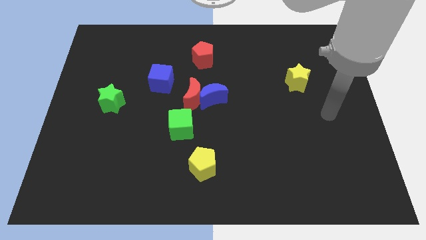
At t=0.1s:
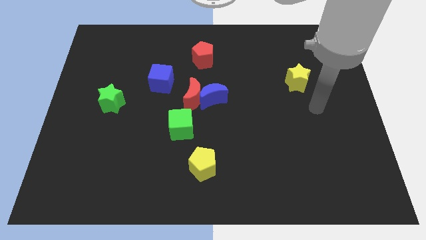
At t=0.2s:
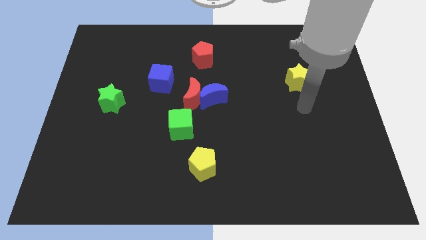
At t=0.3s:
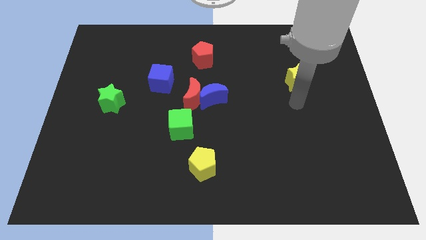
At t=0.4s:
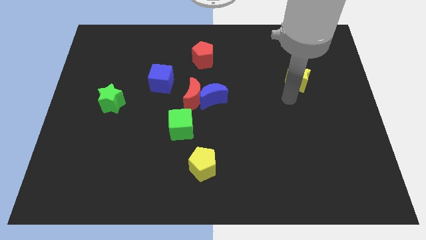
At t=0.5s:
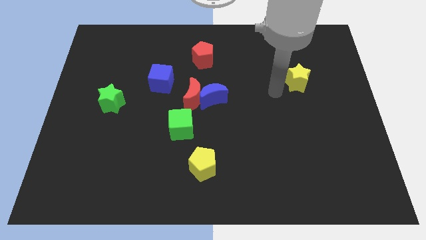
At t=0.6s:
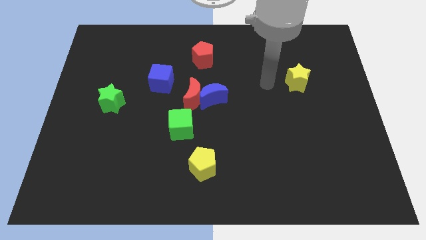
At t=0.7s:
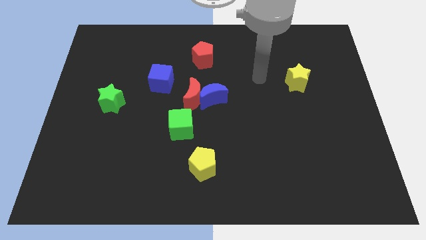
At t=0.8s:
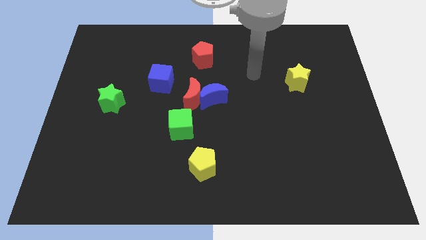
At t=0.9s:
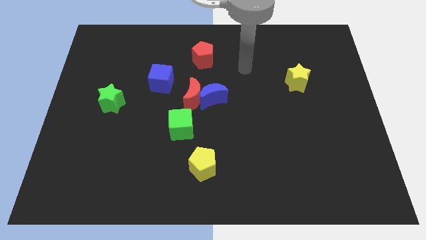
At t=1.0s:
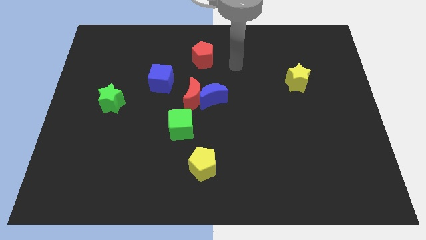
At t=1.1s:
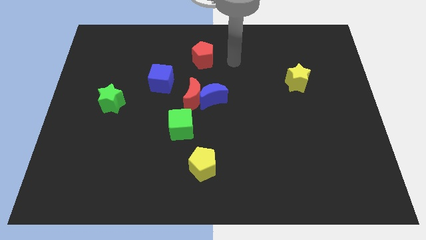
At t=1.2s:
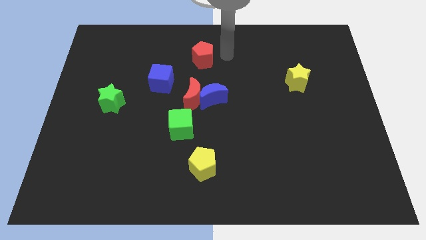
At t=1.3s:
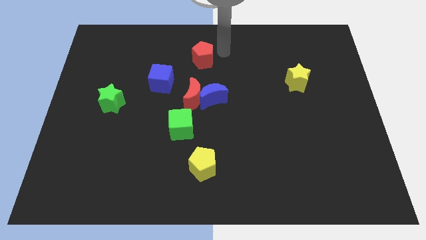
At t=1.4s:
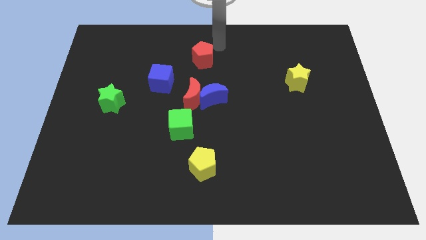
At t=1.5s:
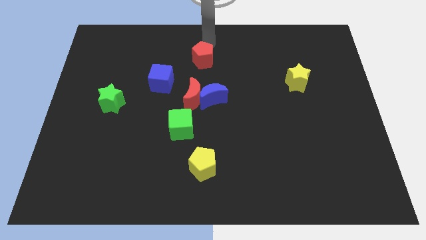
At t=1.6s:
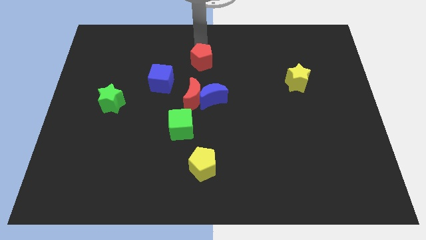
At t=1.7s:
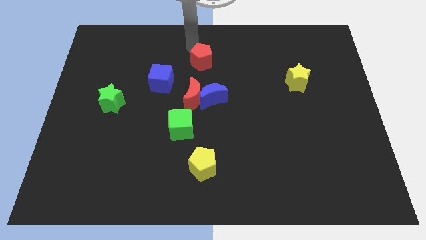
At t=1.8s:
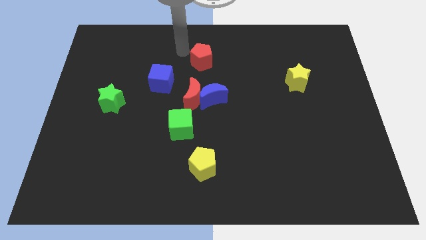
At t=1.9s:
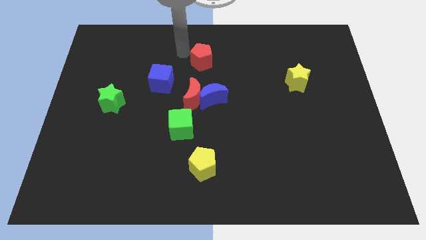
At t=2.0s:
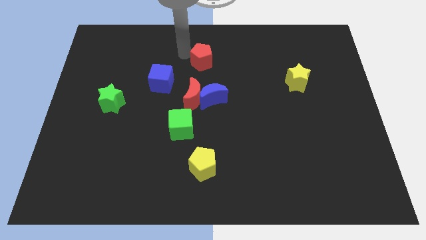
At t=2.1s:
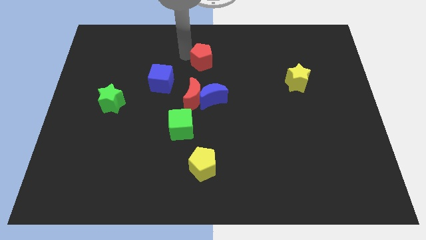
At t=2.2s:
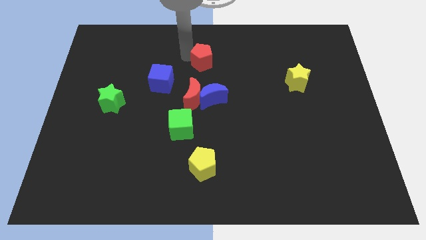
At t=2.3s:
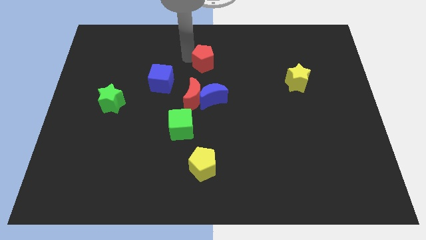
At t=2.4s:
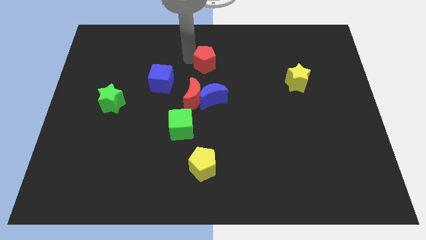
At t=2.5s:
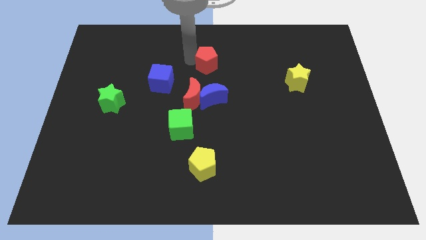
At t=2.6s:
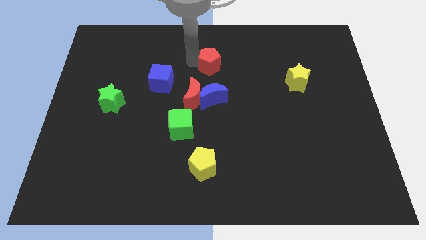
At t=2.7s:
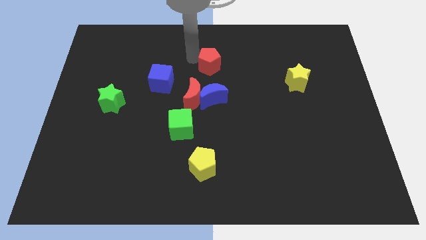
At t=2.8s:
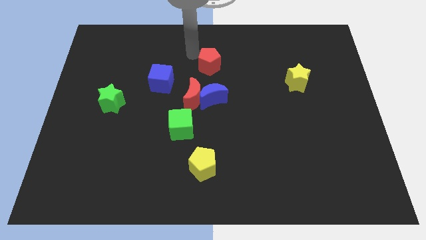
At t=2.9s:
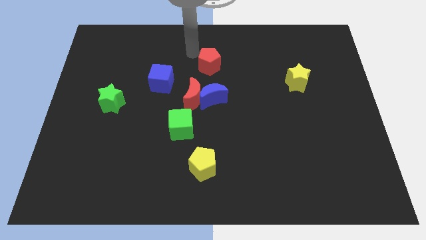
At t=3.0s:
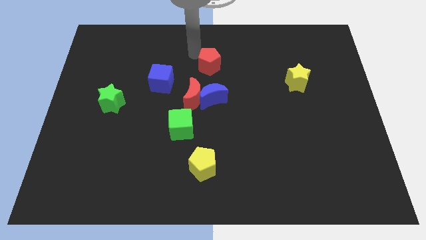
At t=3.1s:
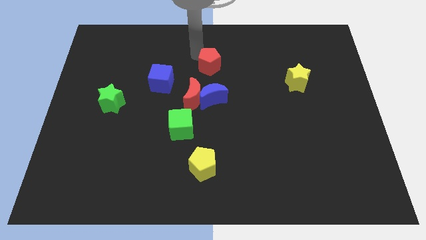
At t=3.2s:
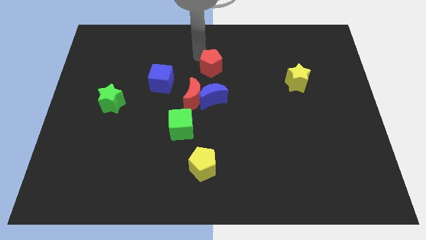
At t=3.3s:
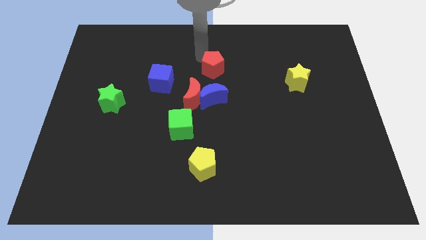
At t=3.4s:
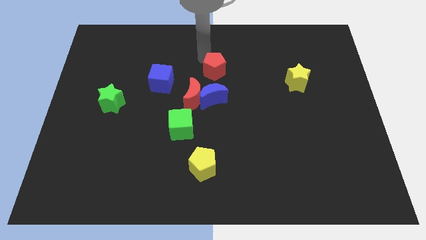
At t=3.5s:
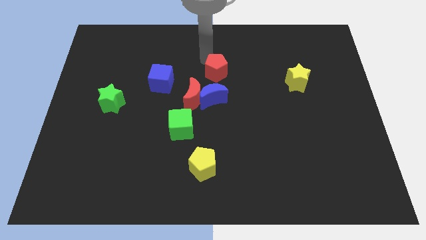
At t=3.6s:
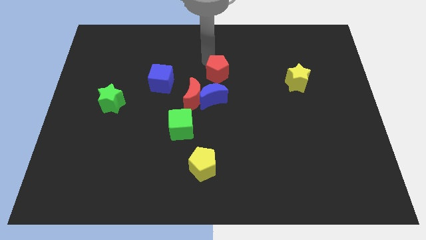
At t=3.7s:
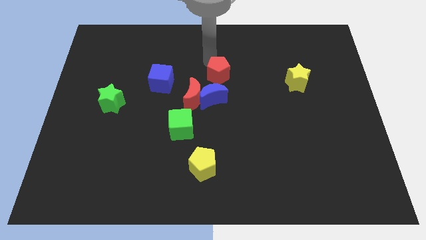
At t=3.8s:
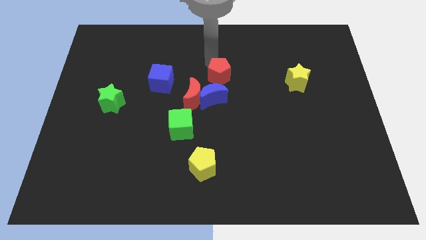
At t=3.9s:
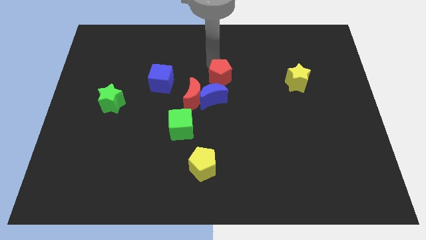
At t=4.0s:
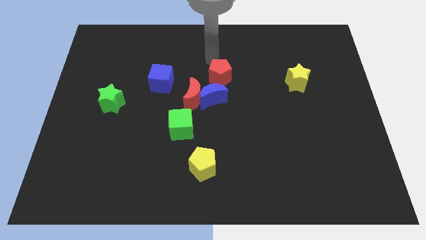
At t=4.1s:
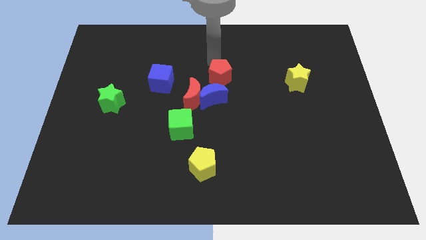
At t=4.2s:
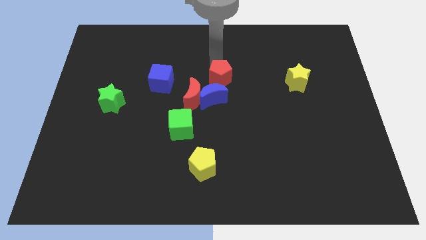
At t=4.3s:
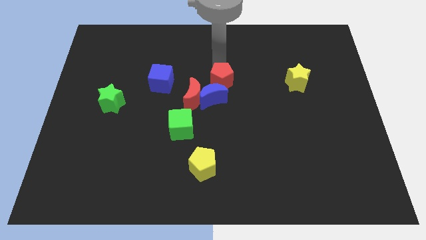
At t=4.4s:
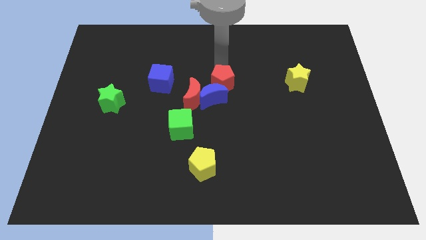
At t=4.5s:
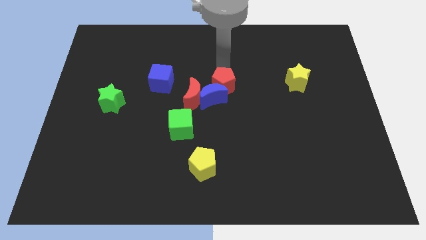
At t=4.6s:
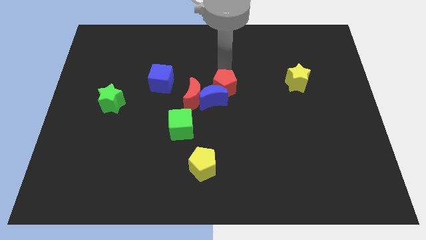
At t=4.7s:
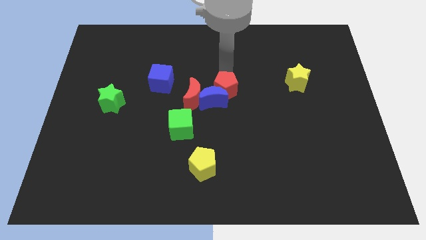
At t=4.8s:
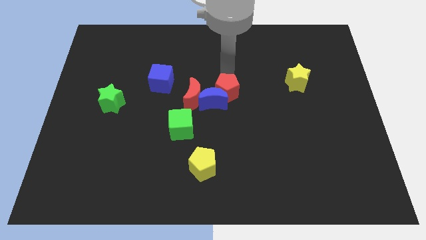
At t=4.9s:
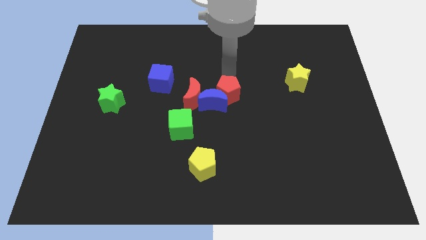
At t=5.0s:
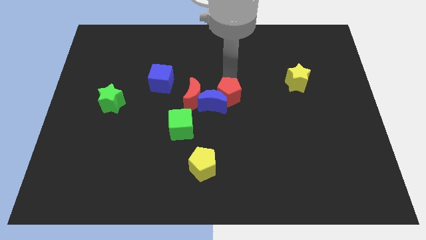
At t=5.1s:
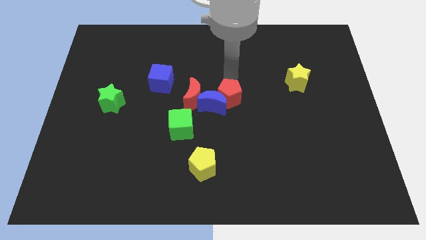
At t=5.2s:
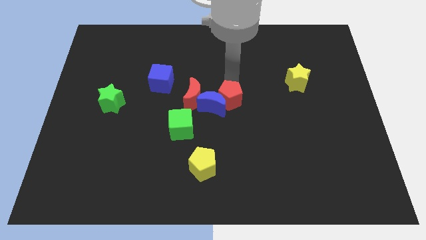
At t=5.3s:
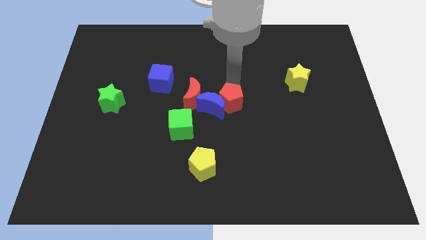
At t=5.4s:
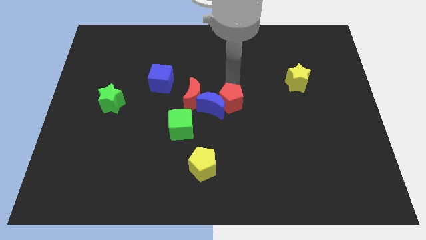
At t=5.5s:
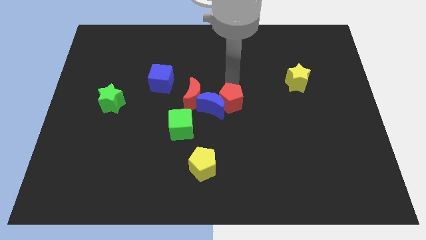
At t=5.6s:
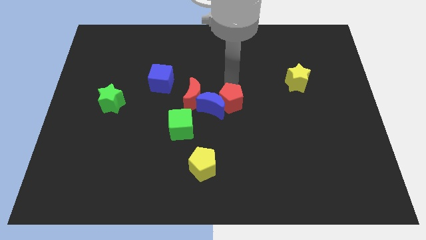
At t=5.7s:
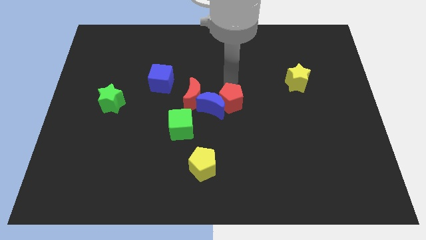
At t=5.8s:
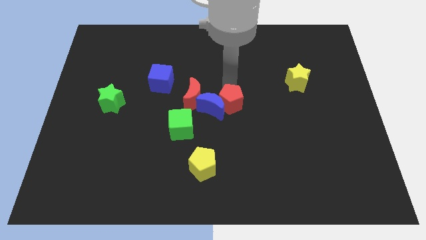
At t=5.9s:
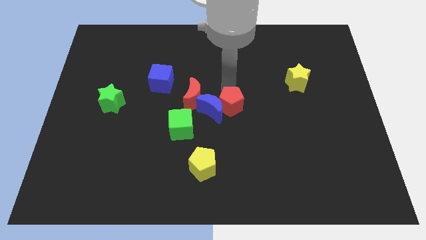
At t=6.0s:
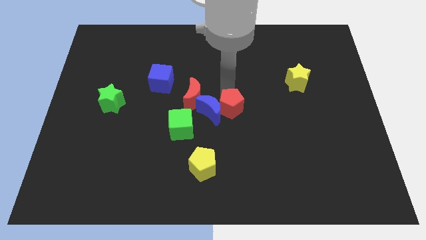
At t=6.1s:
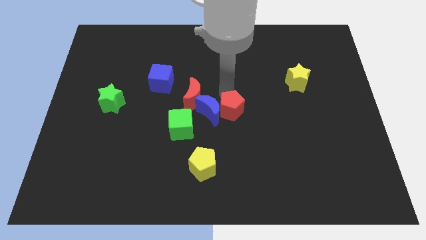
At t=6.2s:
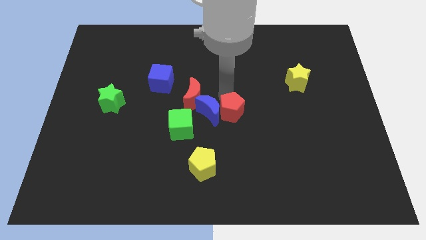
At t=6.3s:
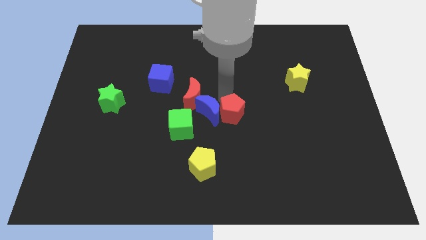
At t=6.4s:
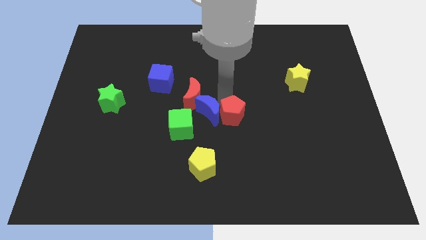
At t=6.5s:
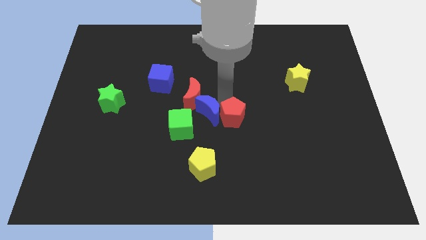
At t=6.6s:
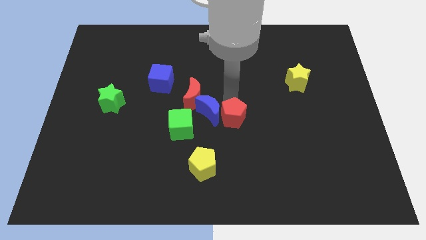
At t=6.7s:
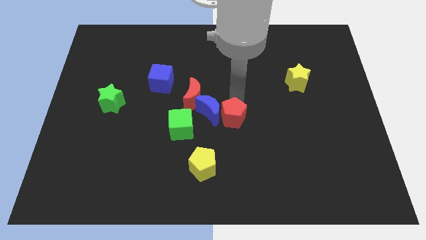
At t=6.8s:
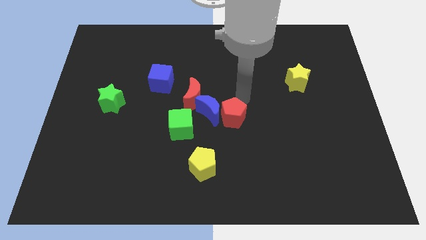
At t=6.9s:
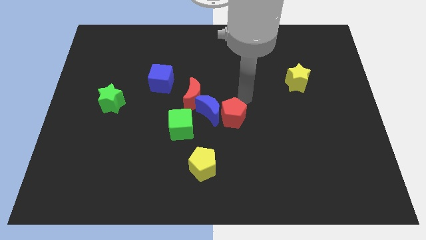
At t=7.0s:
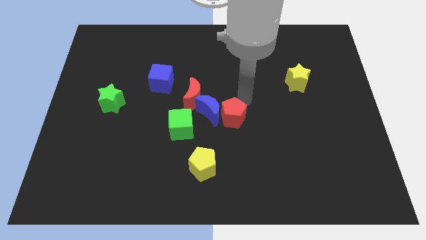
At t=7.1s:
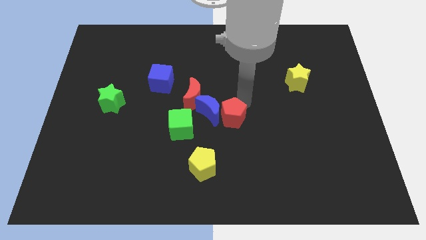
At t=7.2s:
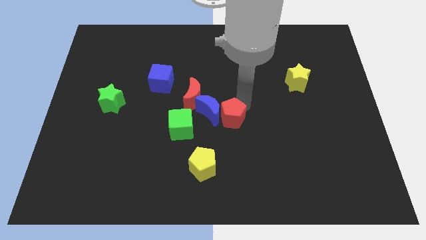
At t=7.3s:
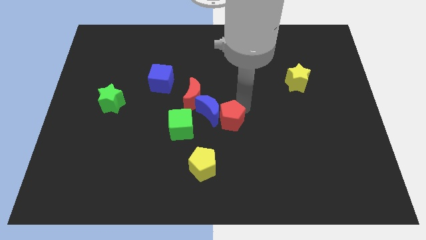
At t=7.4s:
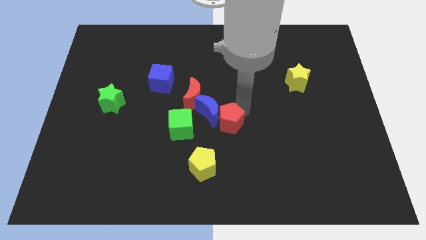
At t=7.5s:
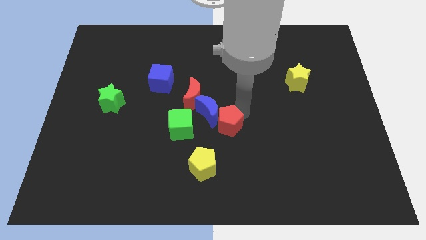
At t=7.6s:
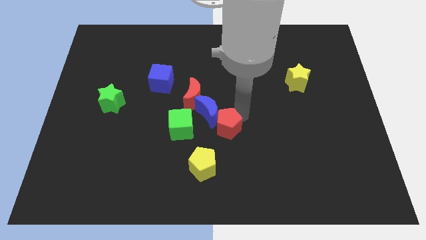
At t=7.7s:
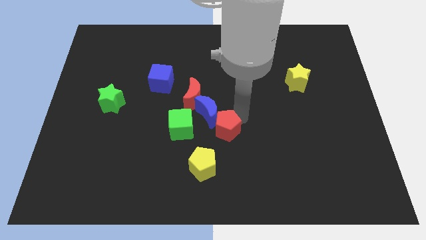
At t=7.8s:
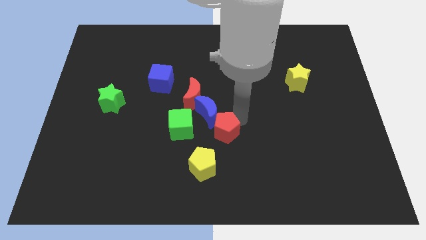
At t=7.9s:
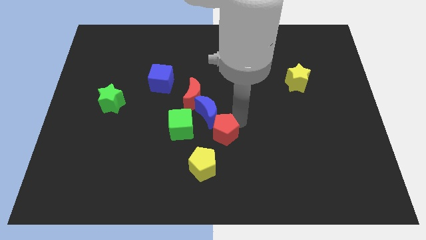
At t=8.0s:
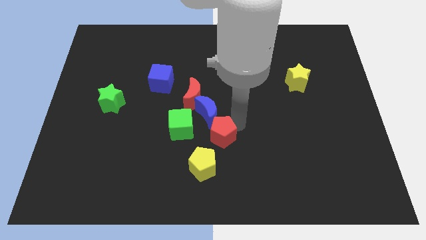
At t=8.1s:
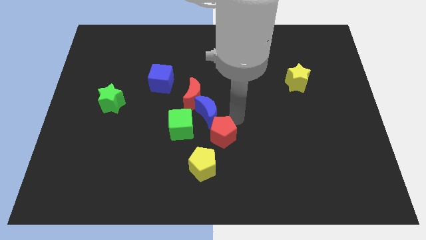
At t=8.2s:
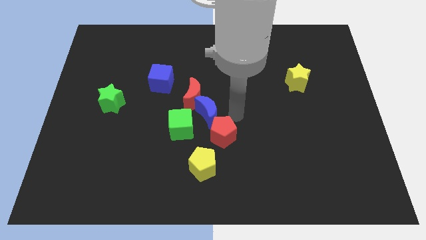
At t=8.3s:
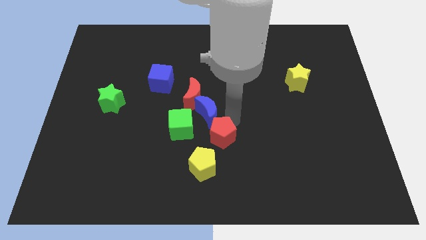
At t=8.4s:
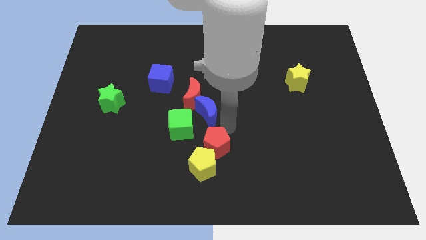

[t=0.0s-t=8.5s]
push the red pentagon next to the yellow pentagon
